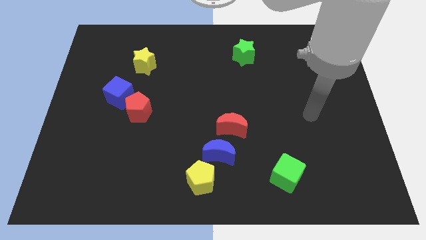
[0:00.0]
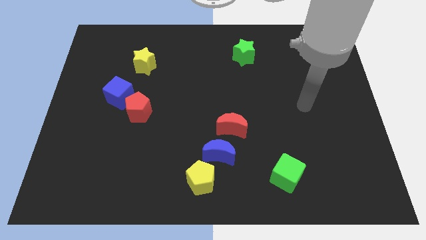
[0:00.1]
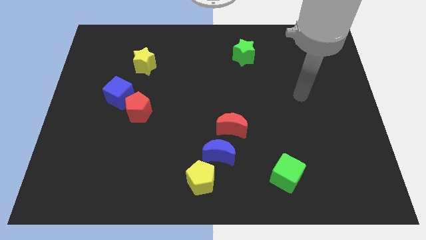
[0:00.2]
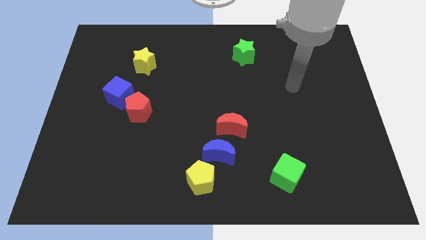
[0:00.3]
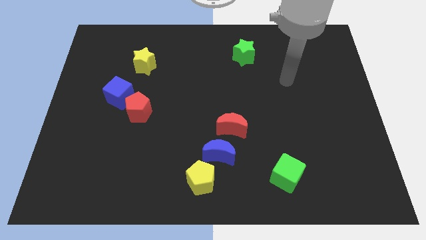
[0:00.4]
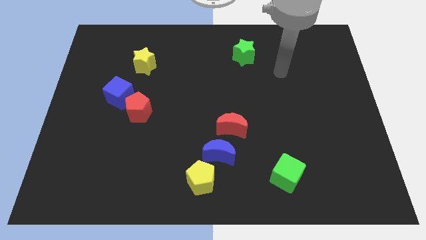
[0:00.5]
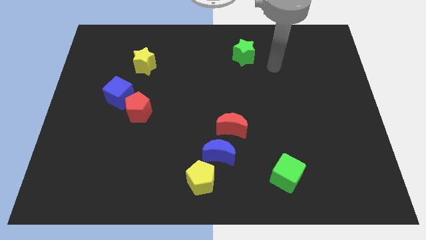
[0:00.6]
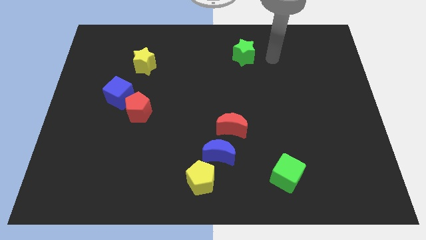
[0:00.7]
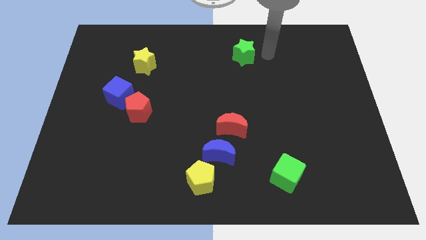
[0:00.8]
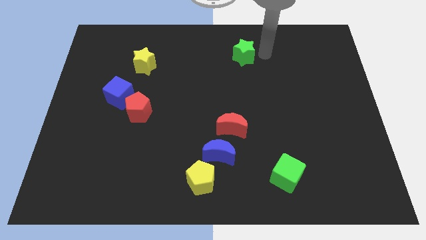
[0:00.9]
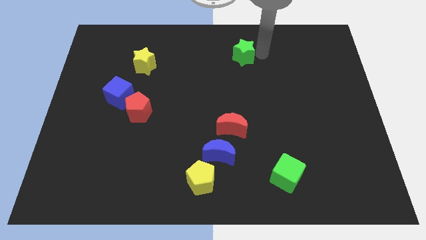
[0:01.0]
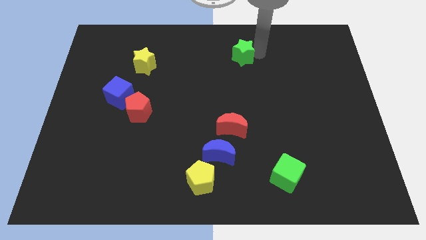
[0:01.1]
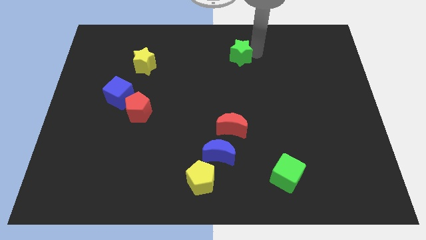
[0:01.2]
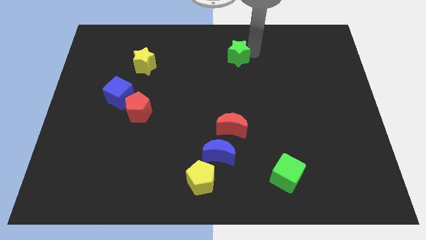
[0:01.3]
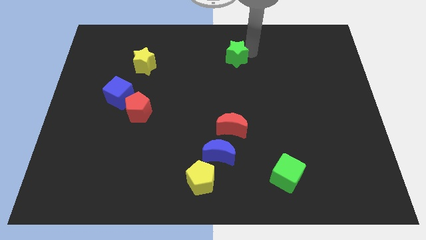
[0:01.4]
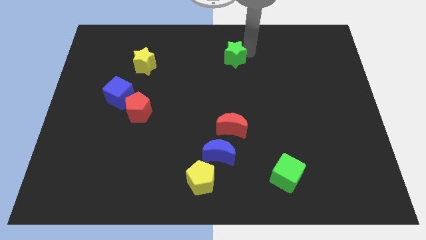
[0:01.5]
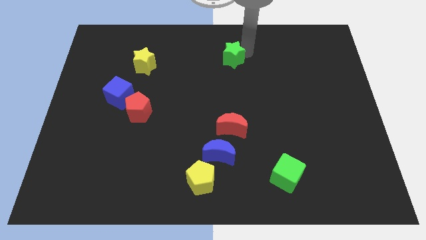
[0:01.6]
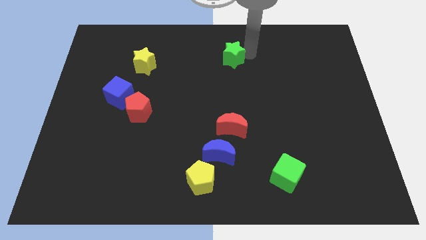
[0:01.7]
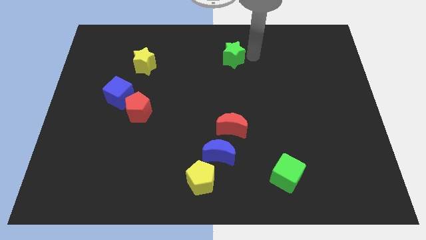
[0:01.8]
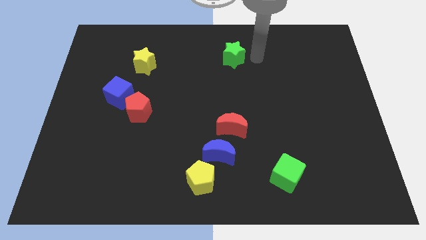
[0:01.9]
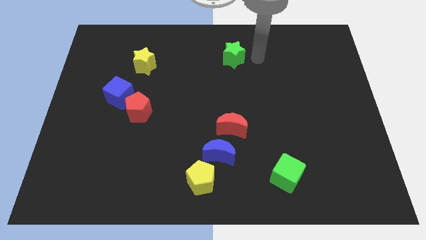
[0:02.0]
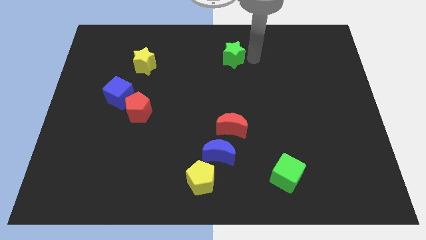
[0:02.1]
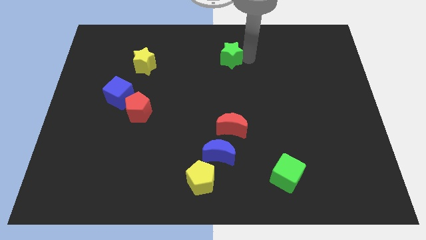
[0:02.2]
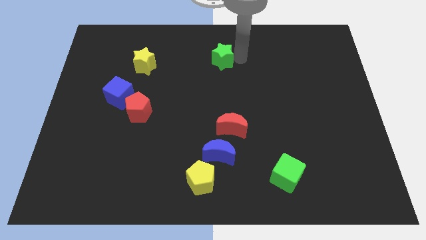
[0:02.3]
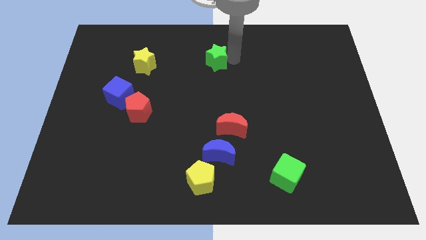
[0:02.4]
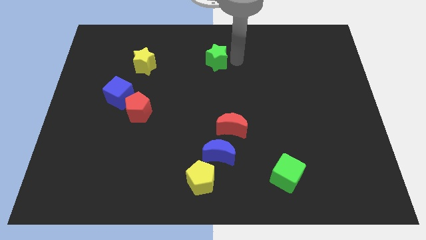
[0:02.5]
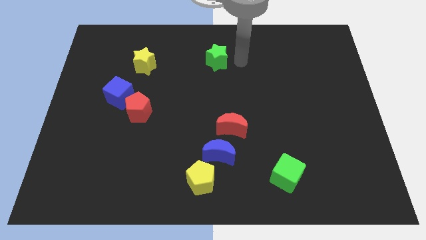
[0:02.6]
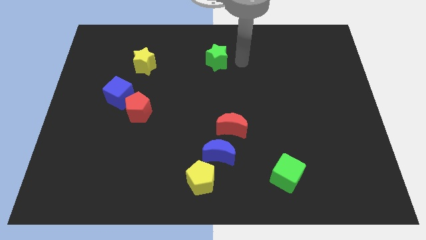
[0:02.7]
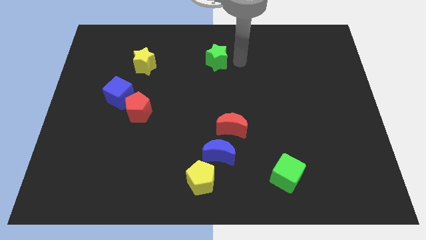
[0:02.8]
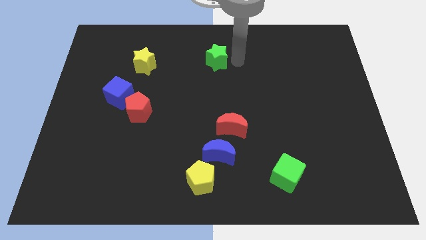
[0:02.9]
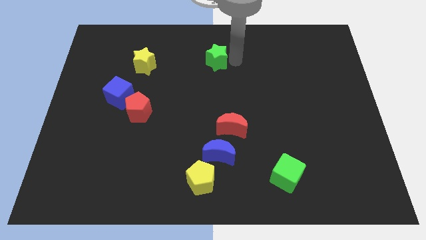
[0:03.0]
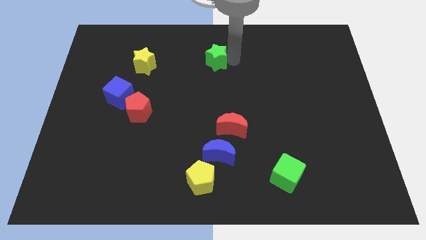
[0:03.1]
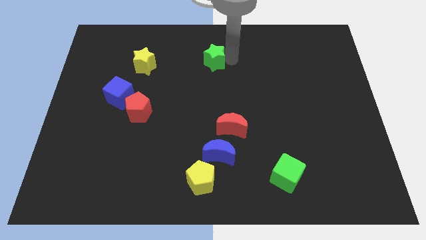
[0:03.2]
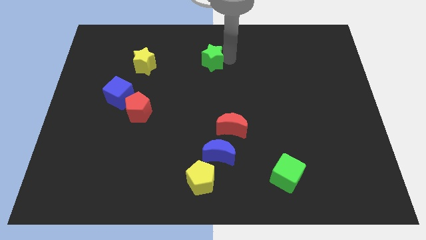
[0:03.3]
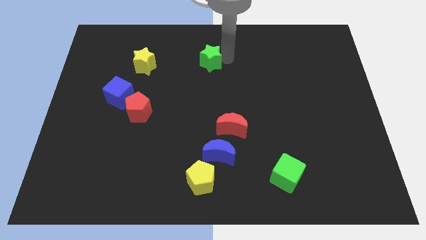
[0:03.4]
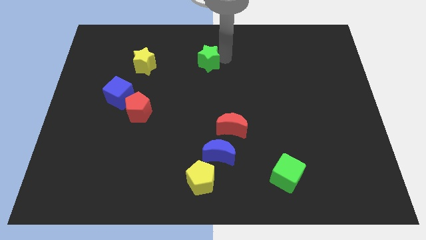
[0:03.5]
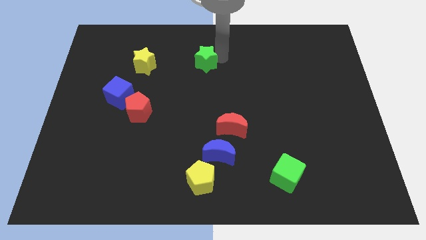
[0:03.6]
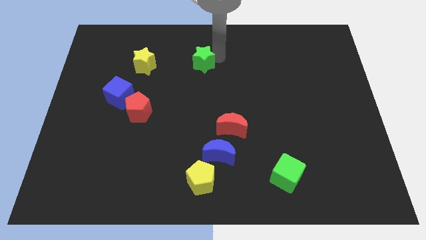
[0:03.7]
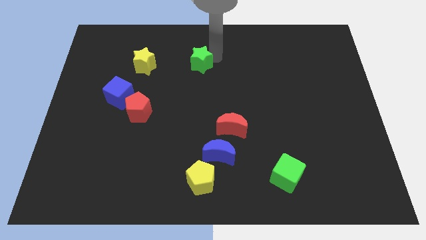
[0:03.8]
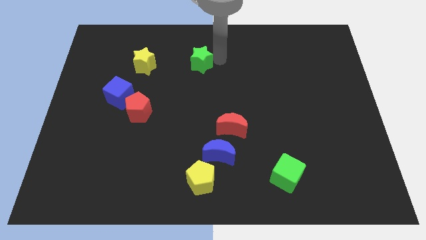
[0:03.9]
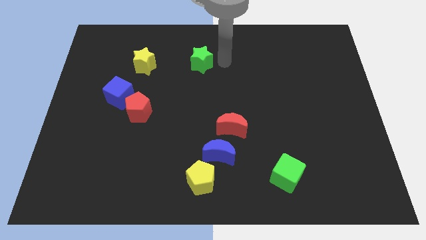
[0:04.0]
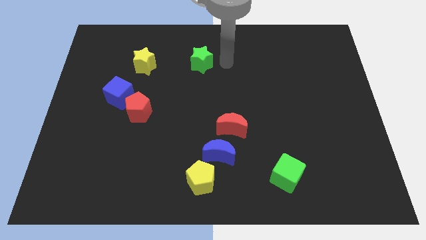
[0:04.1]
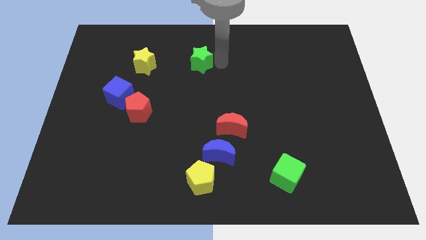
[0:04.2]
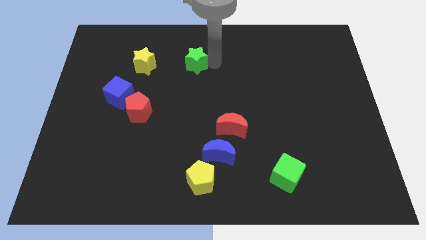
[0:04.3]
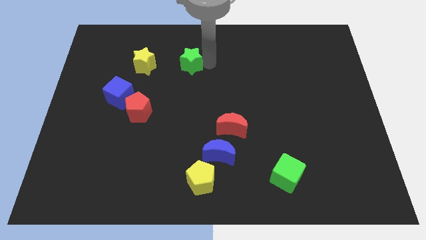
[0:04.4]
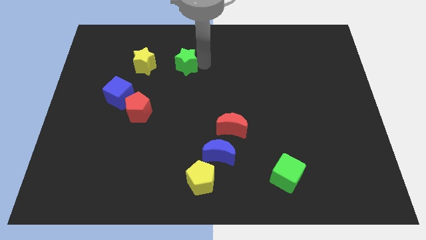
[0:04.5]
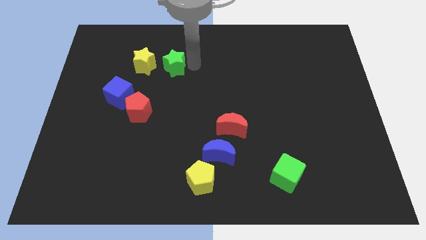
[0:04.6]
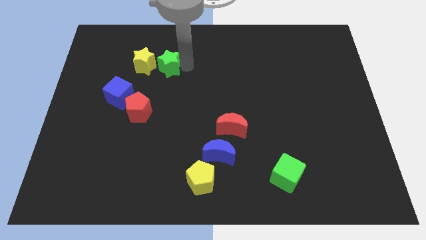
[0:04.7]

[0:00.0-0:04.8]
push the green star to the yellow star

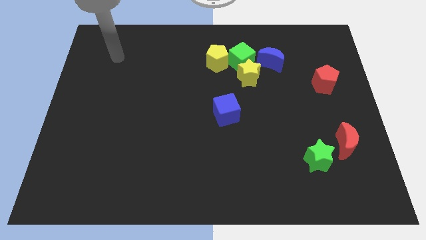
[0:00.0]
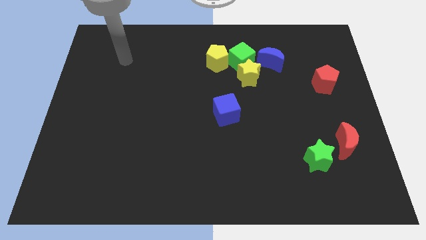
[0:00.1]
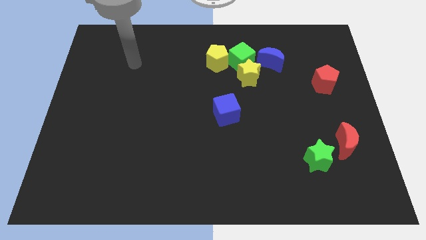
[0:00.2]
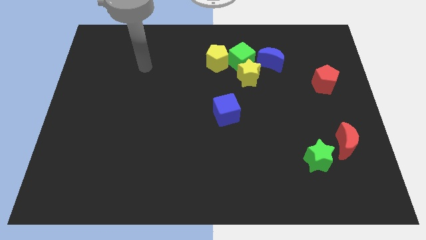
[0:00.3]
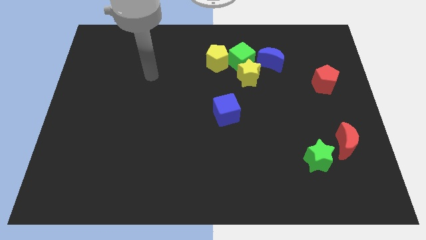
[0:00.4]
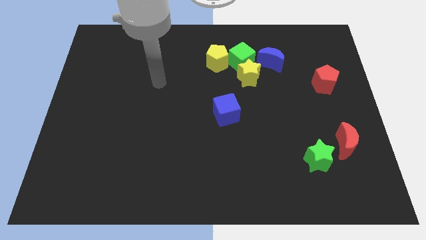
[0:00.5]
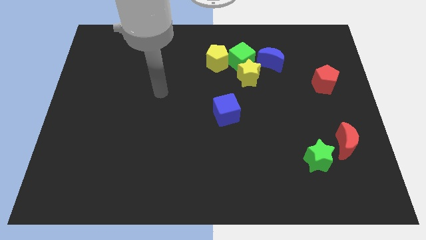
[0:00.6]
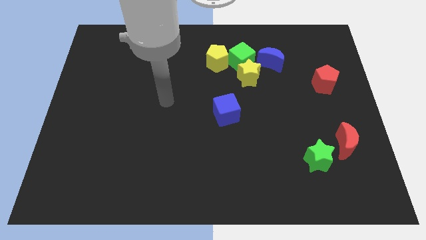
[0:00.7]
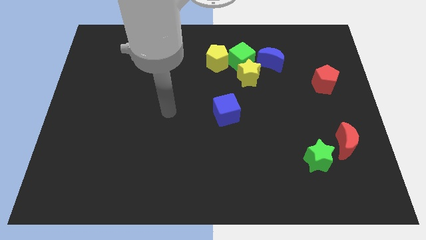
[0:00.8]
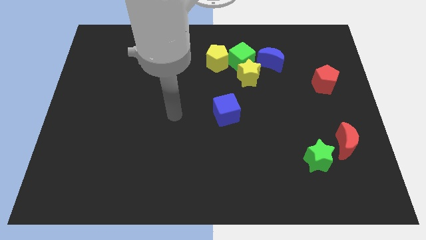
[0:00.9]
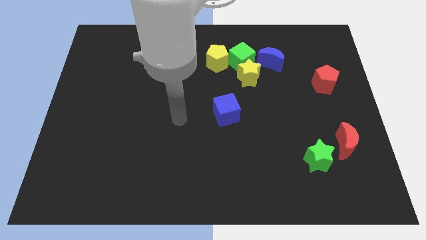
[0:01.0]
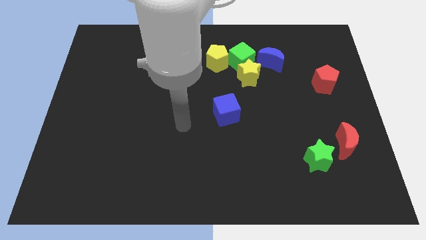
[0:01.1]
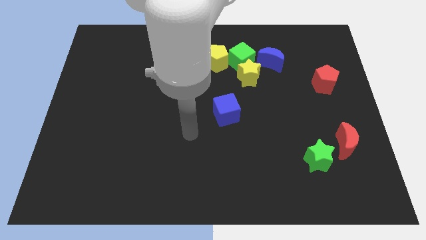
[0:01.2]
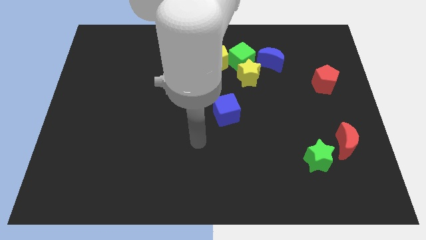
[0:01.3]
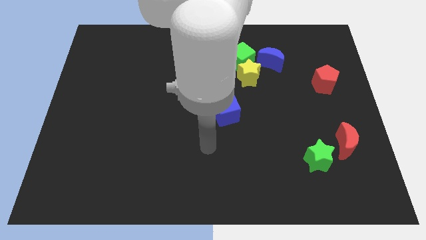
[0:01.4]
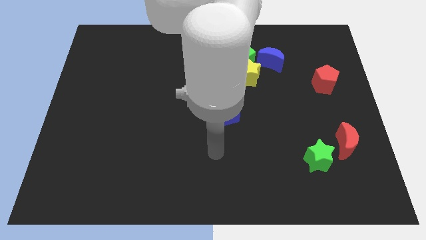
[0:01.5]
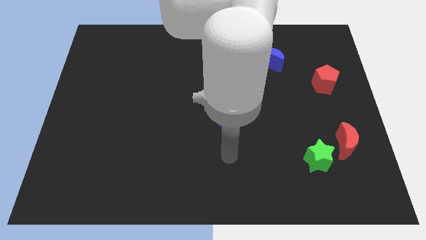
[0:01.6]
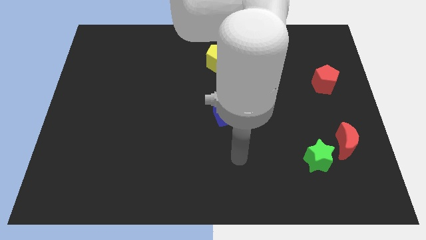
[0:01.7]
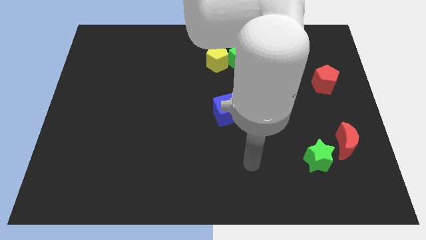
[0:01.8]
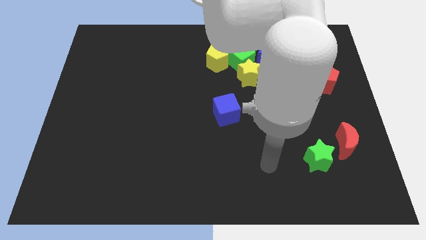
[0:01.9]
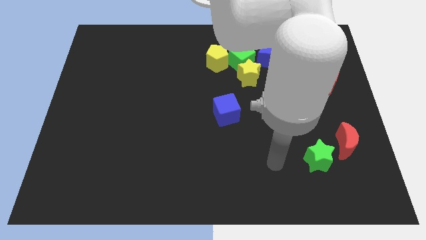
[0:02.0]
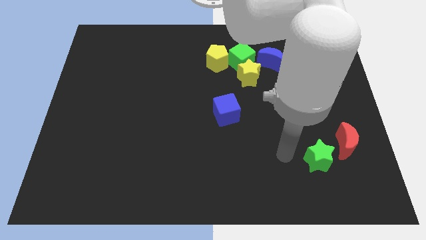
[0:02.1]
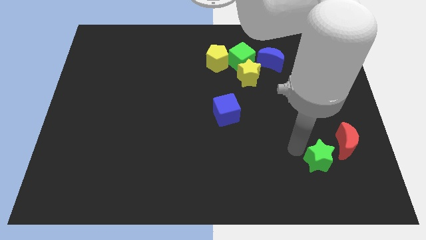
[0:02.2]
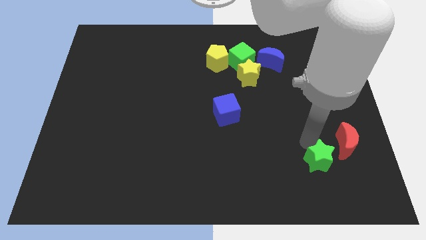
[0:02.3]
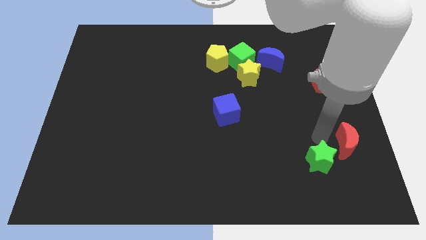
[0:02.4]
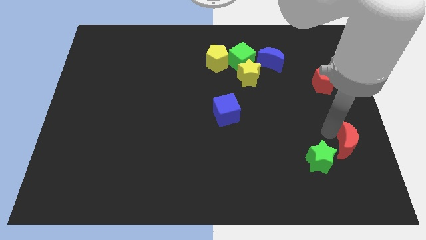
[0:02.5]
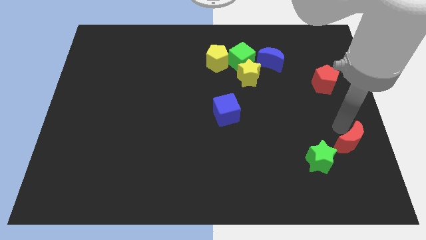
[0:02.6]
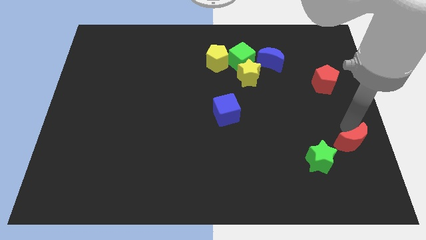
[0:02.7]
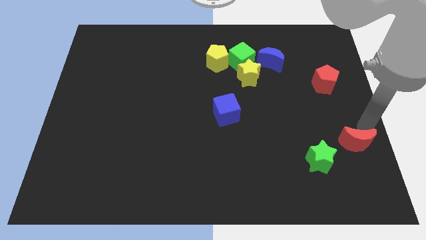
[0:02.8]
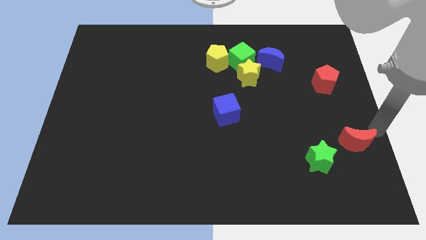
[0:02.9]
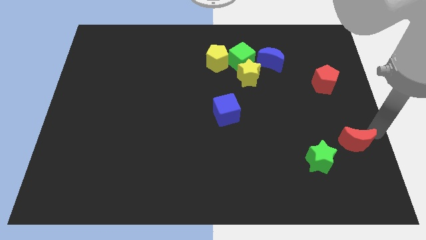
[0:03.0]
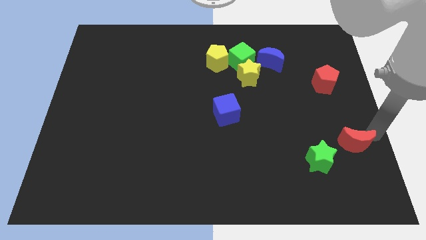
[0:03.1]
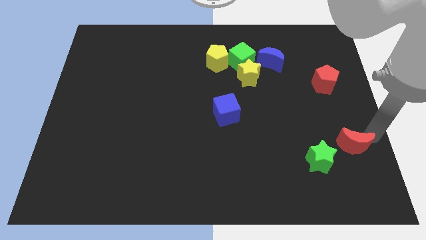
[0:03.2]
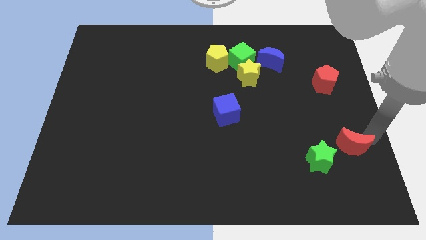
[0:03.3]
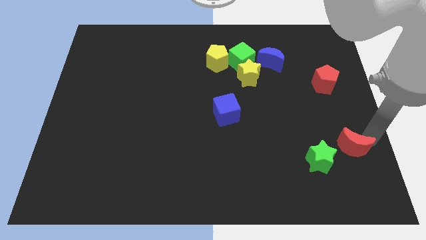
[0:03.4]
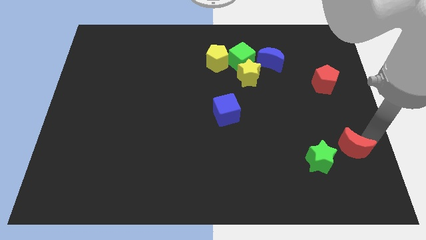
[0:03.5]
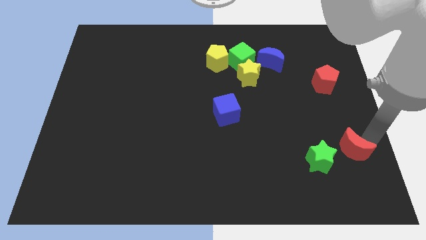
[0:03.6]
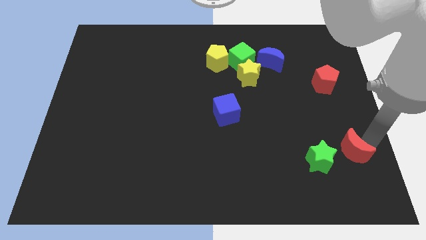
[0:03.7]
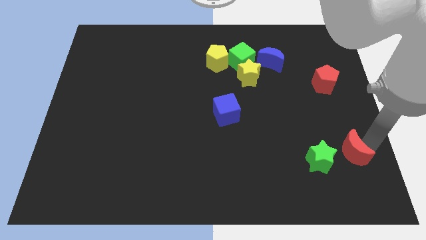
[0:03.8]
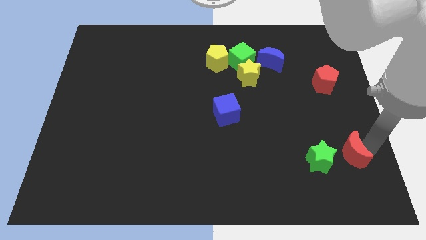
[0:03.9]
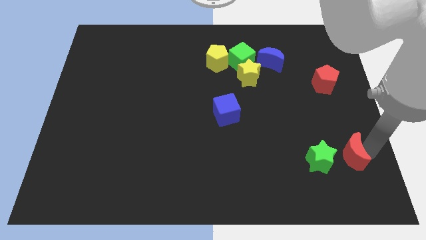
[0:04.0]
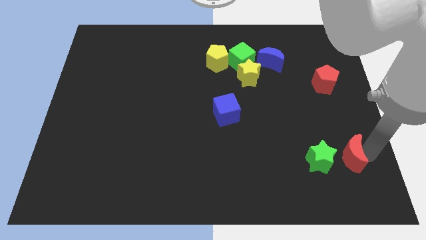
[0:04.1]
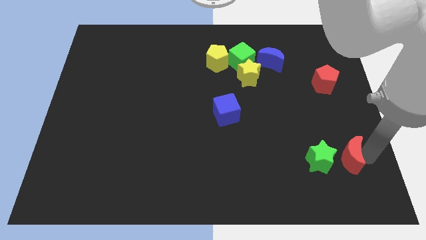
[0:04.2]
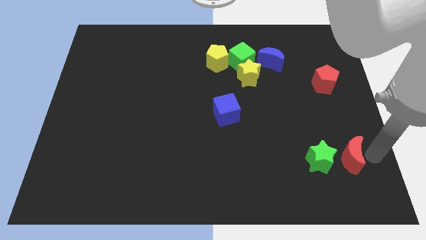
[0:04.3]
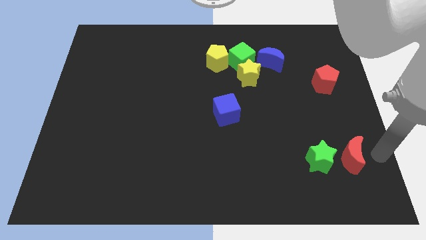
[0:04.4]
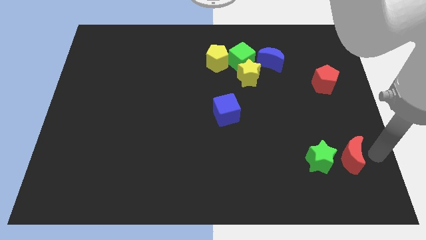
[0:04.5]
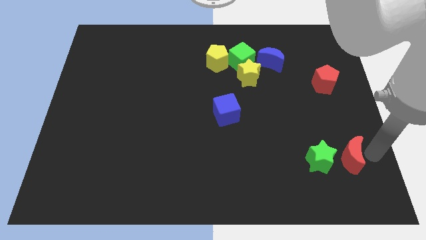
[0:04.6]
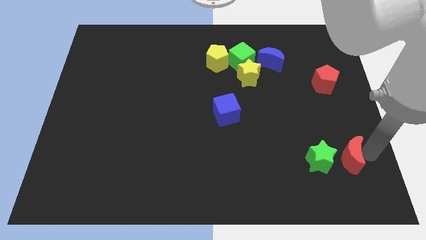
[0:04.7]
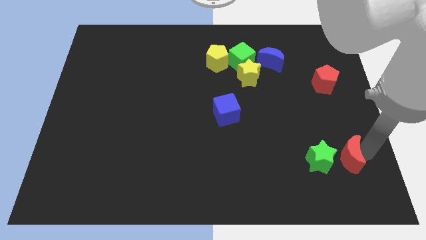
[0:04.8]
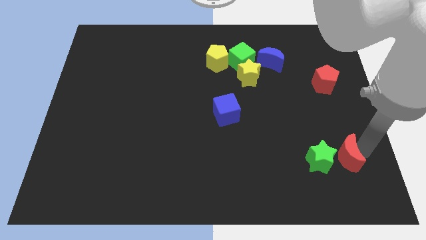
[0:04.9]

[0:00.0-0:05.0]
slide the red moon towards the green star
